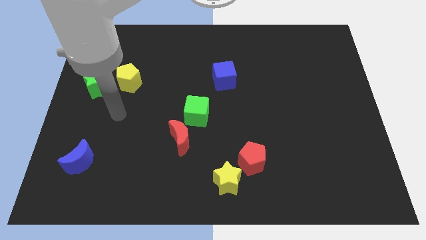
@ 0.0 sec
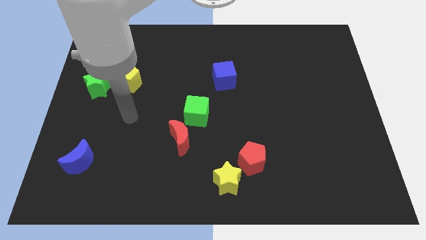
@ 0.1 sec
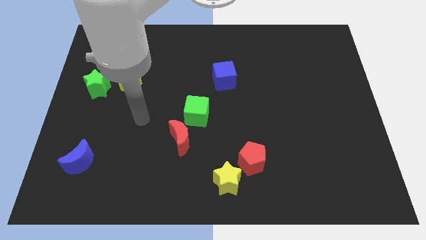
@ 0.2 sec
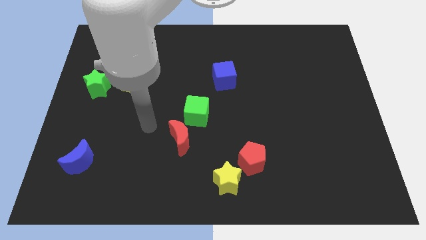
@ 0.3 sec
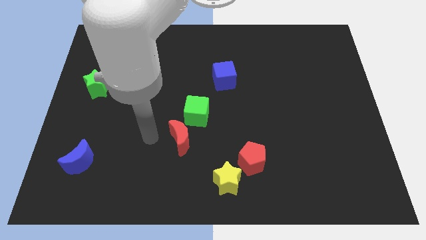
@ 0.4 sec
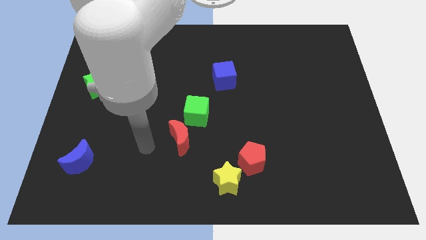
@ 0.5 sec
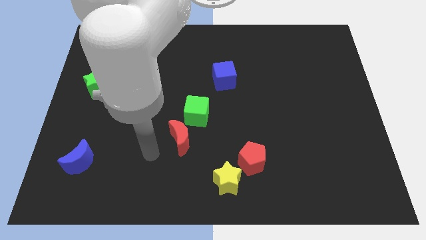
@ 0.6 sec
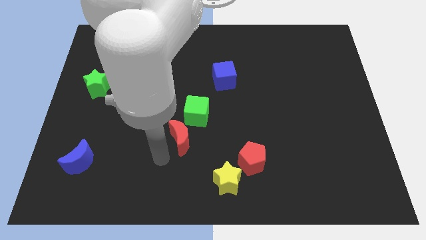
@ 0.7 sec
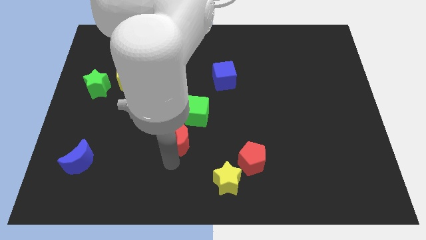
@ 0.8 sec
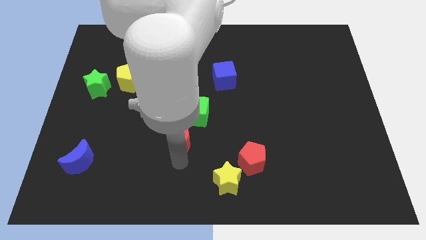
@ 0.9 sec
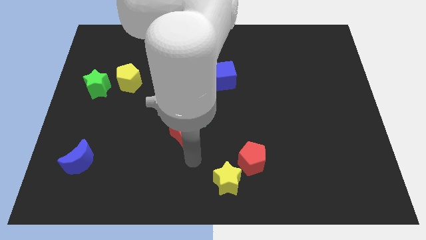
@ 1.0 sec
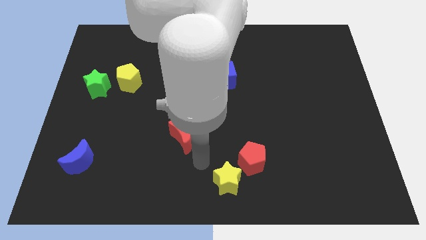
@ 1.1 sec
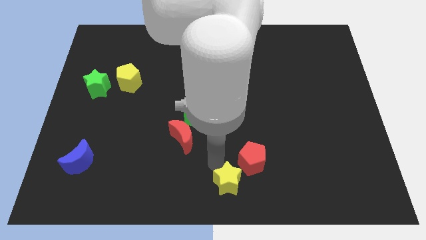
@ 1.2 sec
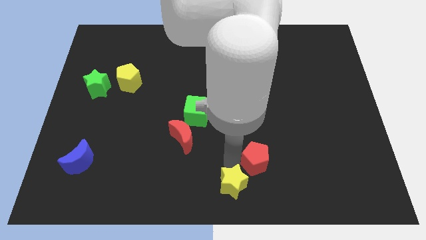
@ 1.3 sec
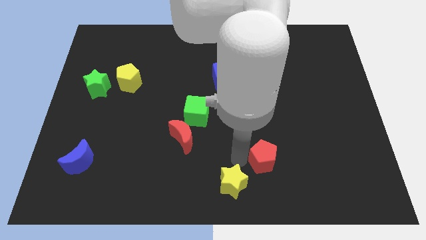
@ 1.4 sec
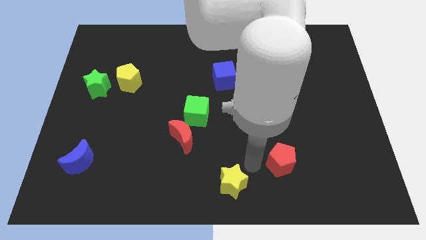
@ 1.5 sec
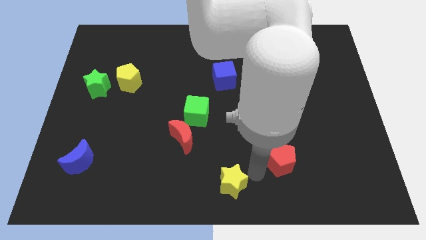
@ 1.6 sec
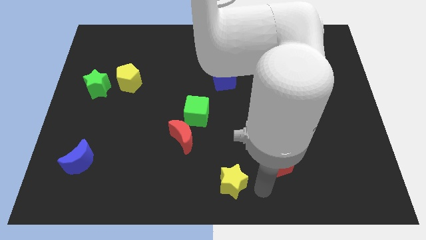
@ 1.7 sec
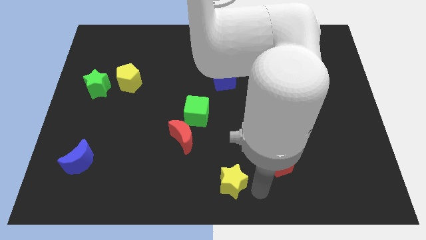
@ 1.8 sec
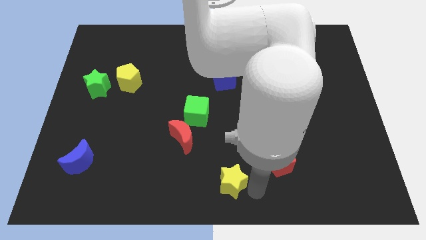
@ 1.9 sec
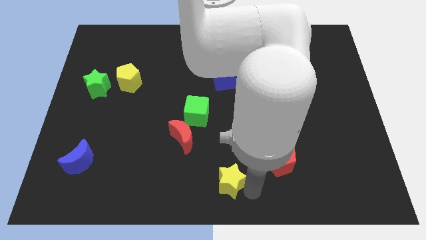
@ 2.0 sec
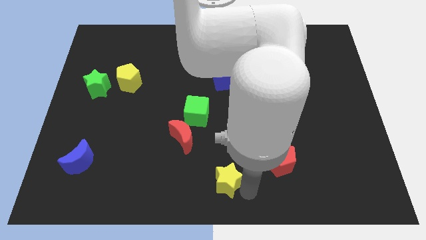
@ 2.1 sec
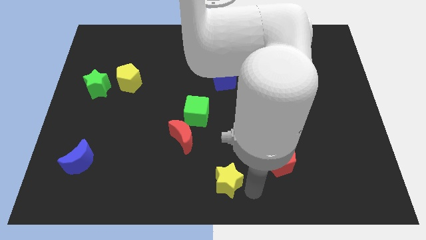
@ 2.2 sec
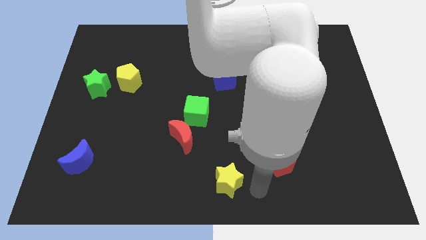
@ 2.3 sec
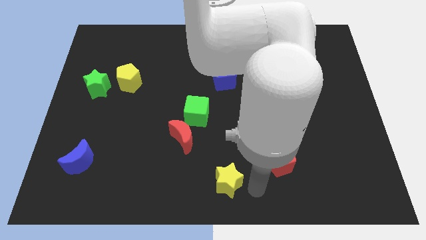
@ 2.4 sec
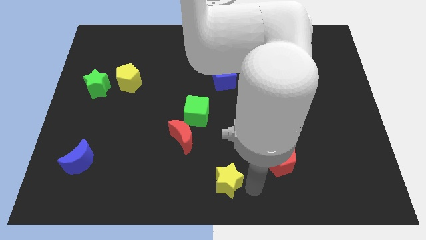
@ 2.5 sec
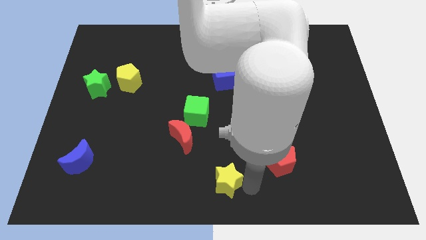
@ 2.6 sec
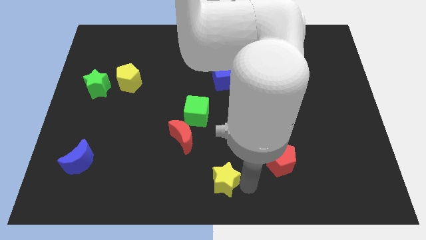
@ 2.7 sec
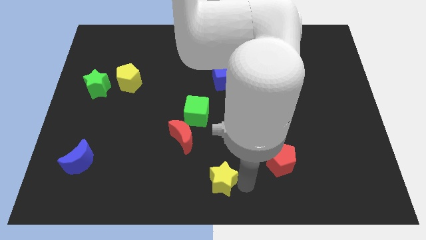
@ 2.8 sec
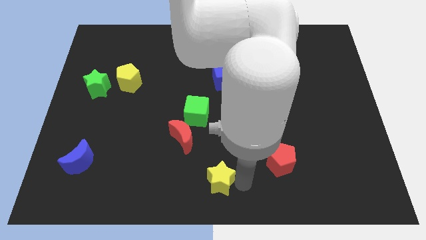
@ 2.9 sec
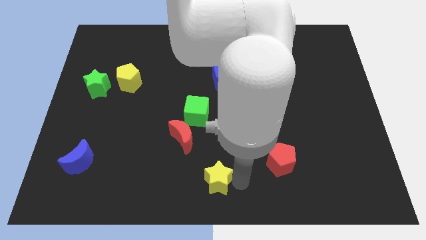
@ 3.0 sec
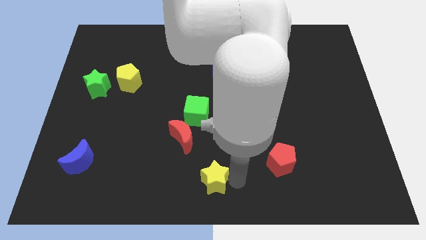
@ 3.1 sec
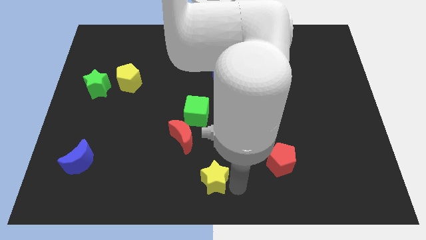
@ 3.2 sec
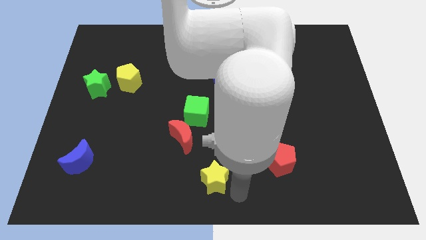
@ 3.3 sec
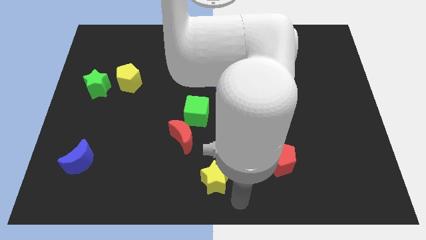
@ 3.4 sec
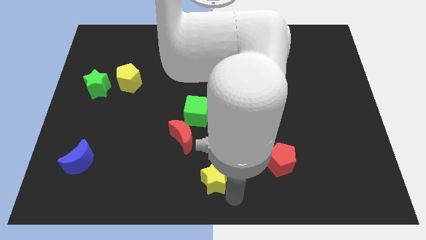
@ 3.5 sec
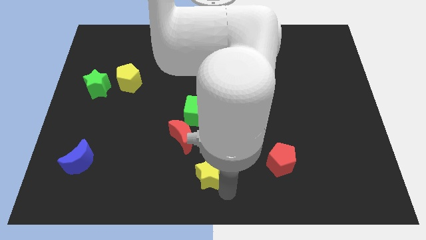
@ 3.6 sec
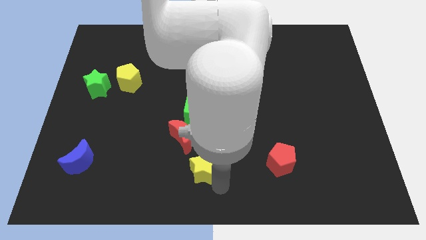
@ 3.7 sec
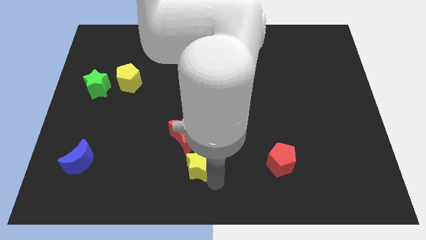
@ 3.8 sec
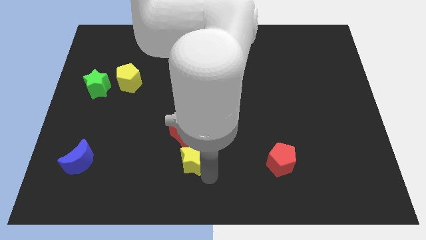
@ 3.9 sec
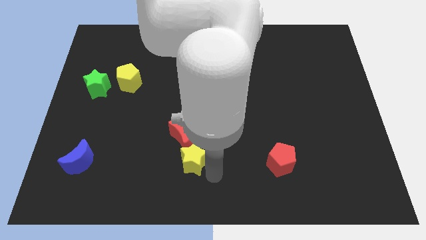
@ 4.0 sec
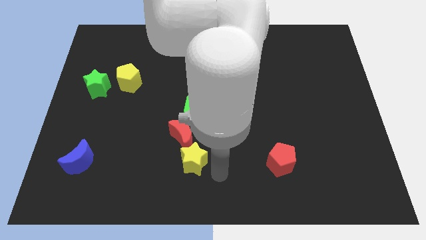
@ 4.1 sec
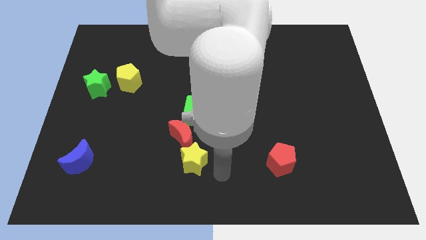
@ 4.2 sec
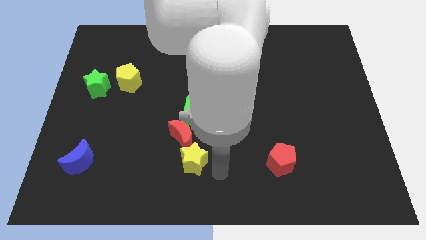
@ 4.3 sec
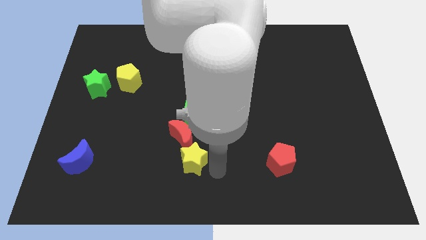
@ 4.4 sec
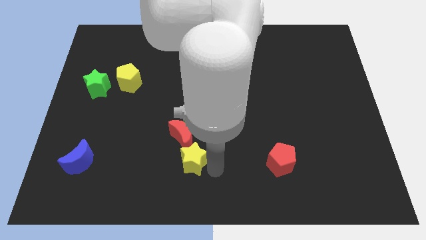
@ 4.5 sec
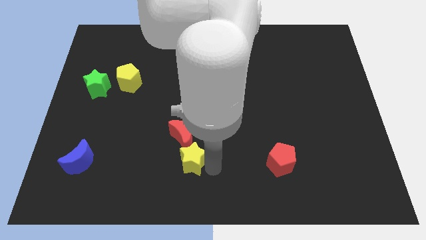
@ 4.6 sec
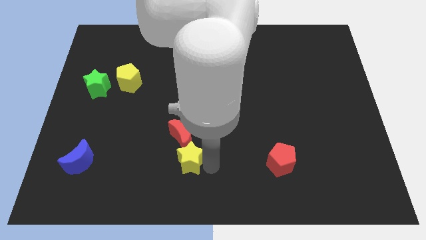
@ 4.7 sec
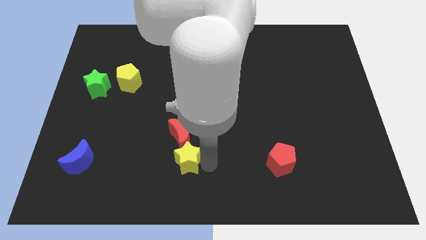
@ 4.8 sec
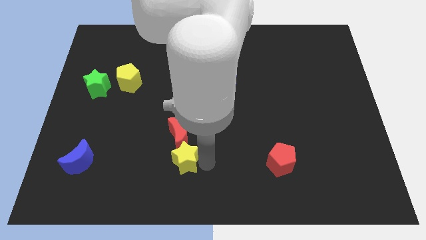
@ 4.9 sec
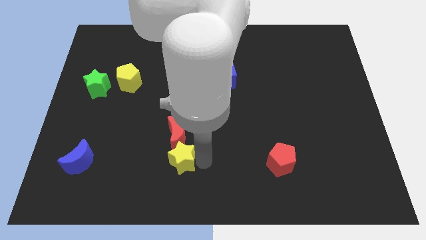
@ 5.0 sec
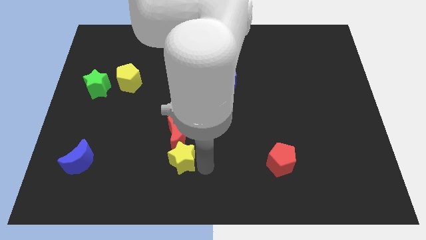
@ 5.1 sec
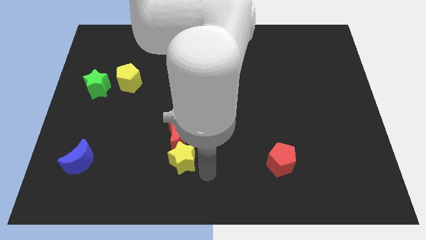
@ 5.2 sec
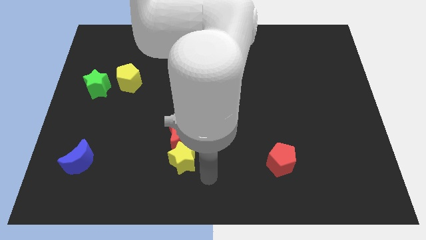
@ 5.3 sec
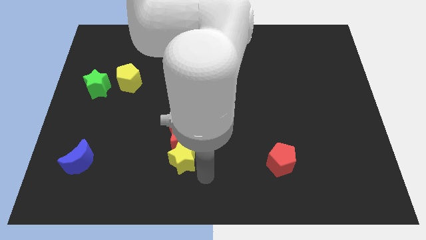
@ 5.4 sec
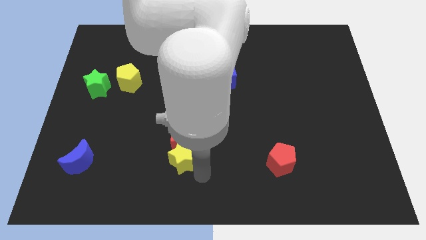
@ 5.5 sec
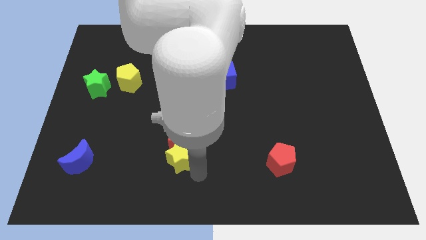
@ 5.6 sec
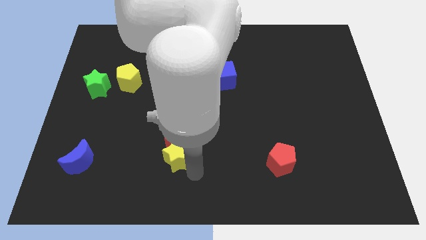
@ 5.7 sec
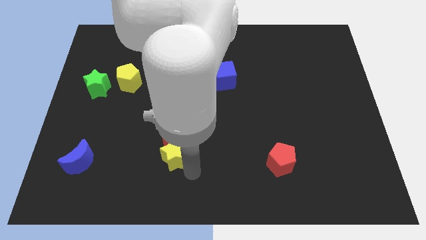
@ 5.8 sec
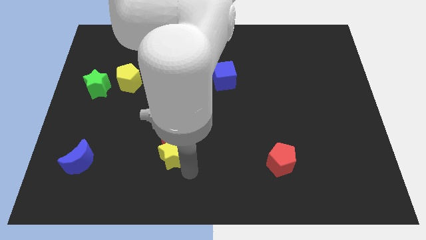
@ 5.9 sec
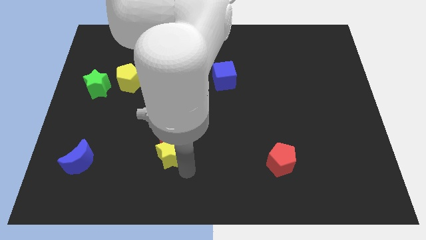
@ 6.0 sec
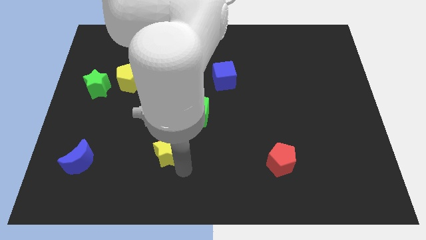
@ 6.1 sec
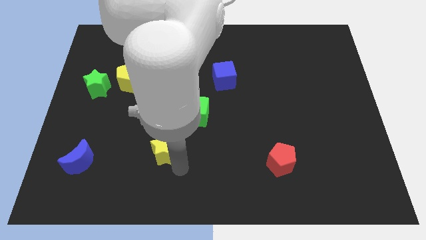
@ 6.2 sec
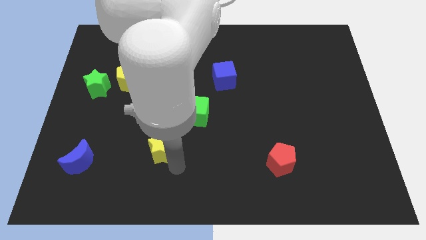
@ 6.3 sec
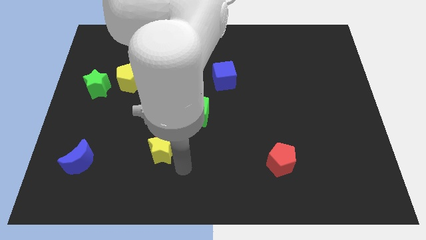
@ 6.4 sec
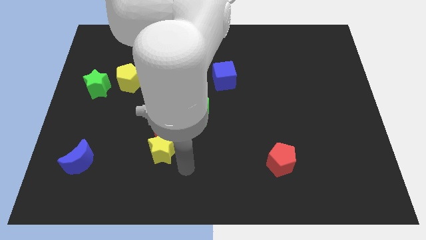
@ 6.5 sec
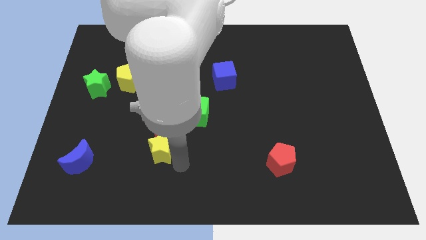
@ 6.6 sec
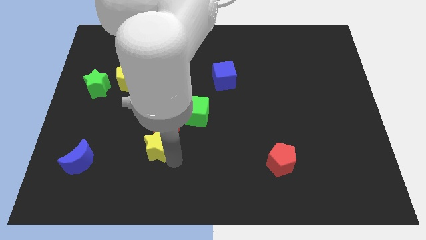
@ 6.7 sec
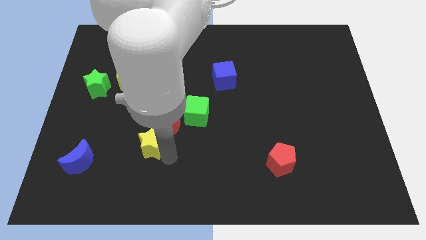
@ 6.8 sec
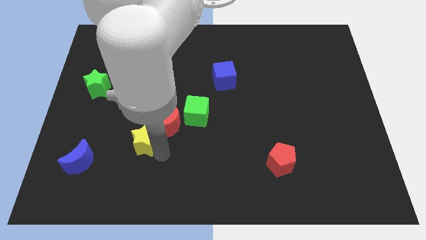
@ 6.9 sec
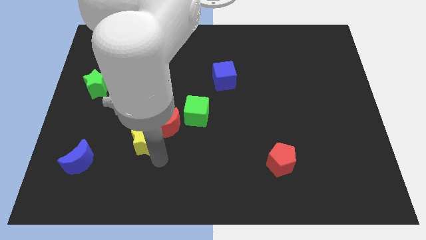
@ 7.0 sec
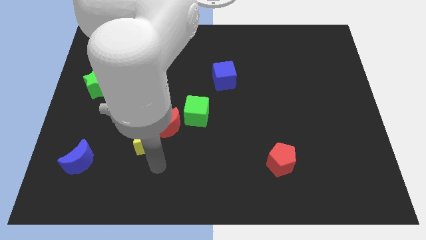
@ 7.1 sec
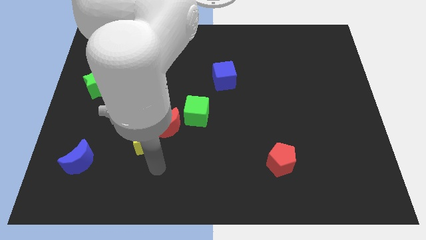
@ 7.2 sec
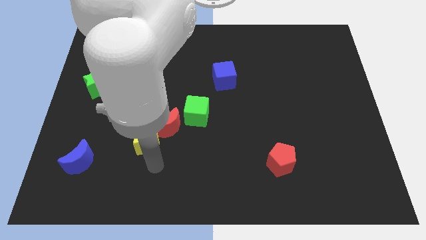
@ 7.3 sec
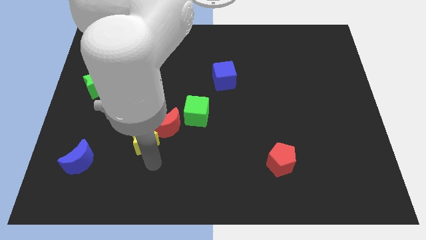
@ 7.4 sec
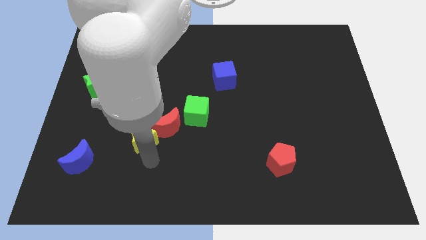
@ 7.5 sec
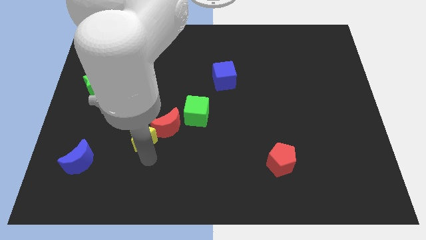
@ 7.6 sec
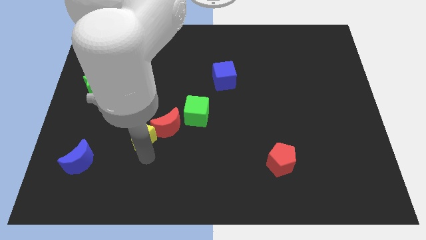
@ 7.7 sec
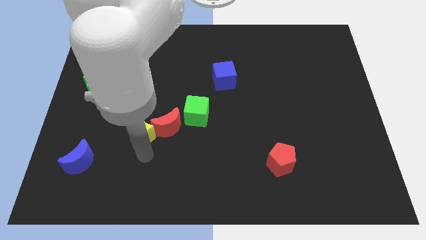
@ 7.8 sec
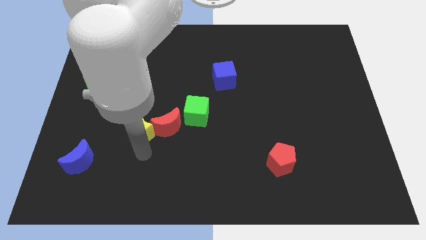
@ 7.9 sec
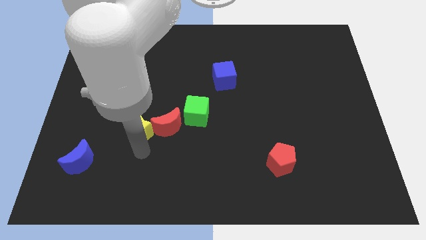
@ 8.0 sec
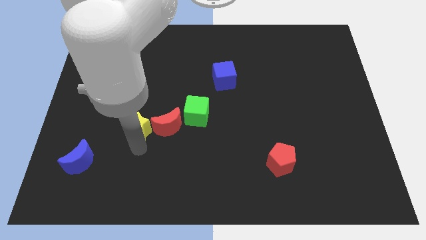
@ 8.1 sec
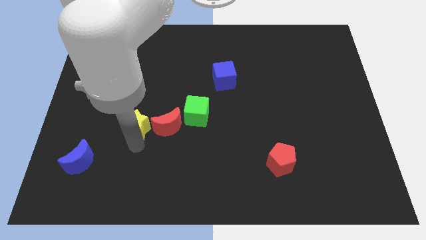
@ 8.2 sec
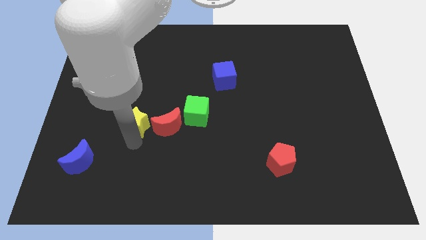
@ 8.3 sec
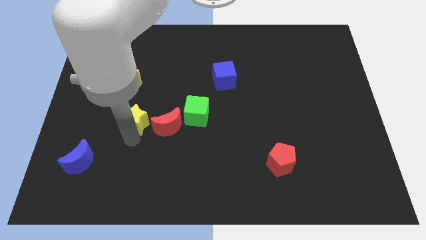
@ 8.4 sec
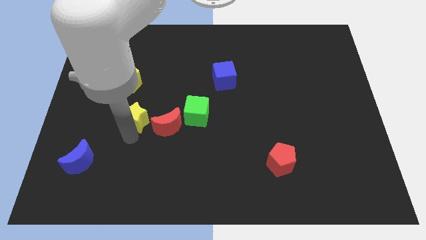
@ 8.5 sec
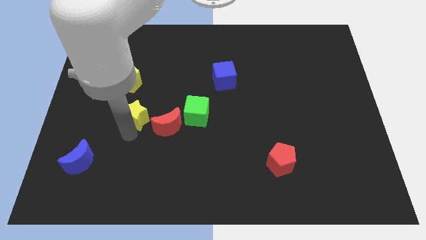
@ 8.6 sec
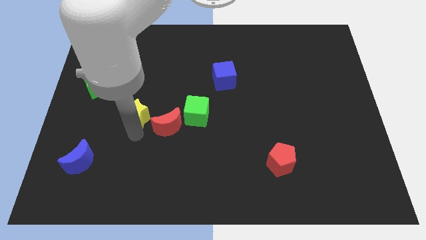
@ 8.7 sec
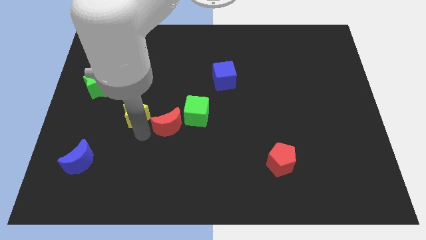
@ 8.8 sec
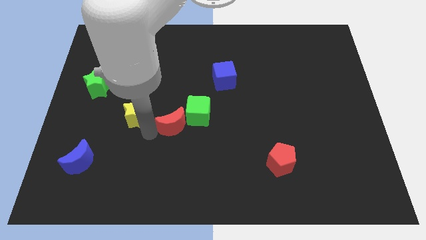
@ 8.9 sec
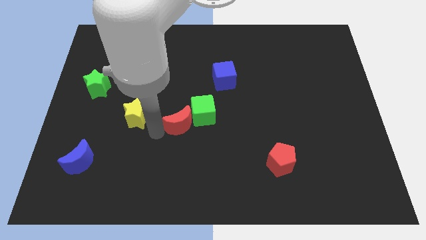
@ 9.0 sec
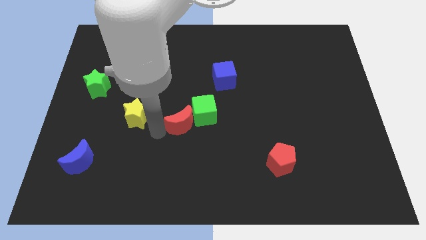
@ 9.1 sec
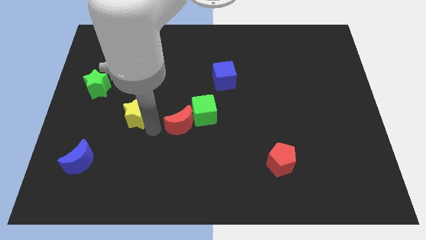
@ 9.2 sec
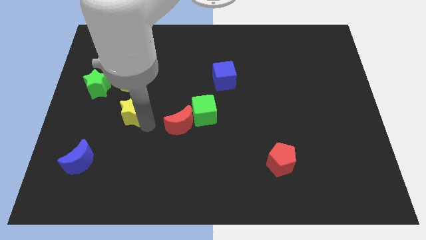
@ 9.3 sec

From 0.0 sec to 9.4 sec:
put the yellow star diagonally down and to the right of the green star
